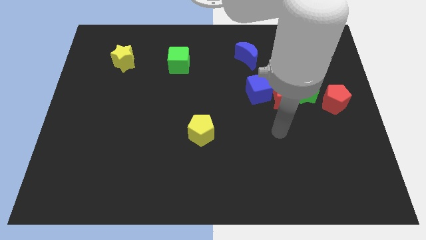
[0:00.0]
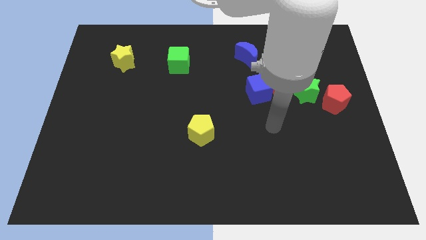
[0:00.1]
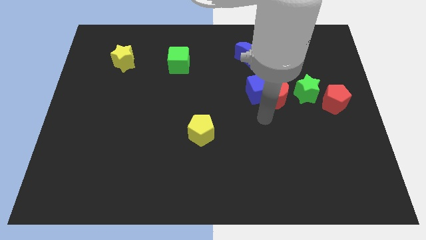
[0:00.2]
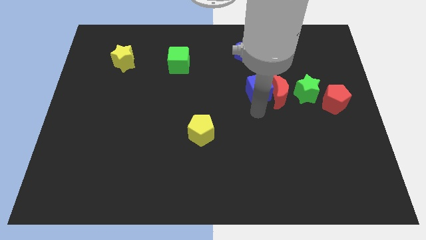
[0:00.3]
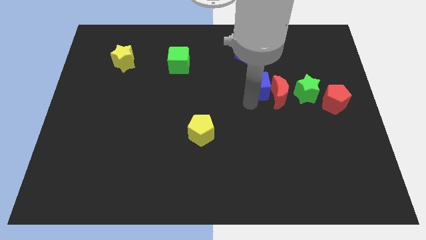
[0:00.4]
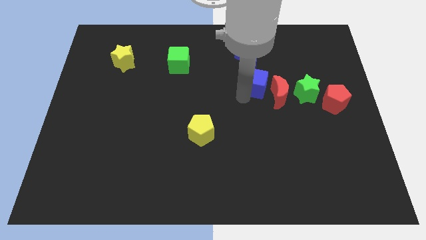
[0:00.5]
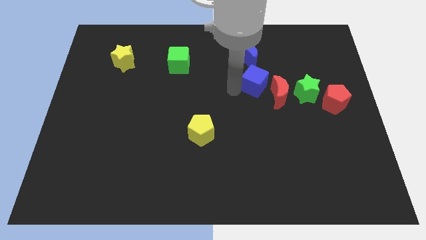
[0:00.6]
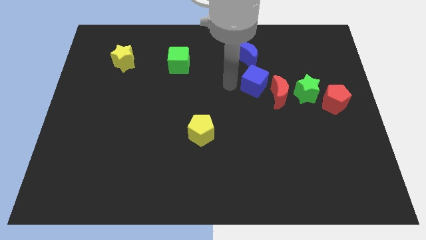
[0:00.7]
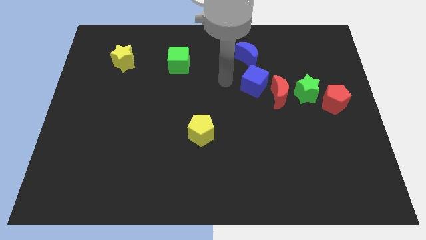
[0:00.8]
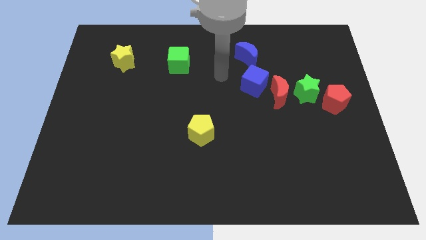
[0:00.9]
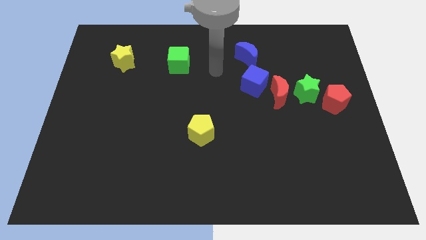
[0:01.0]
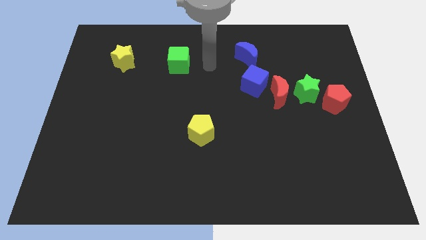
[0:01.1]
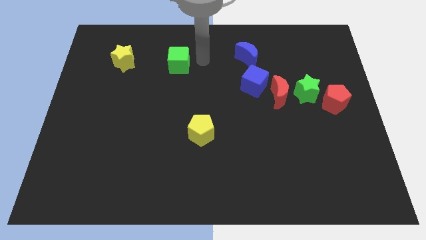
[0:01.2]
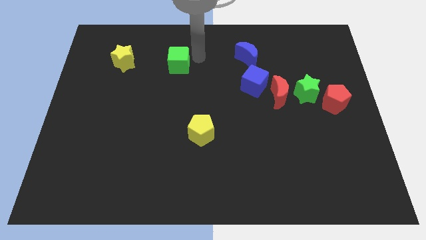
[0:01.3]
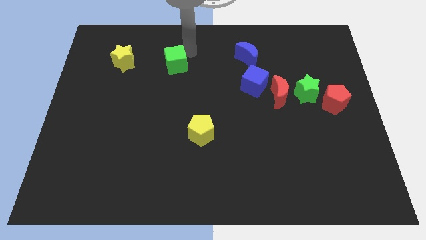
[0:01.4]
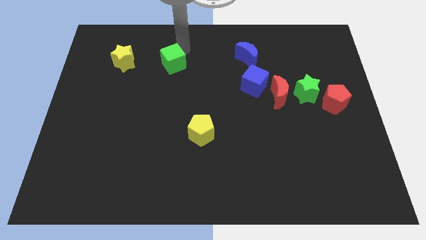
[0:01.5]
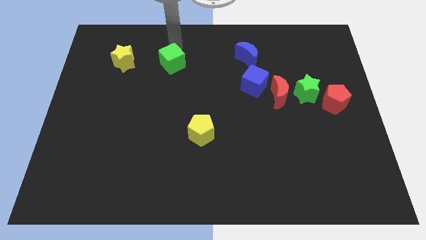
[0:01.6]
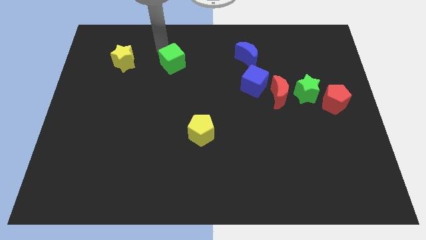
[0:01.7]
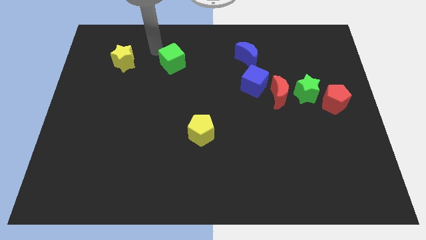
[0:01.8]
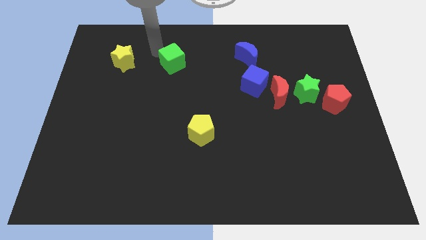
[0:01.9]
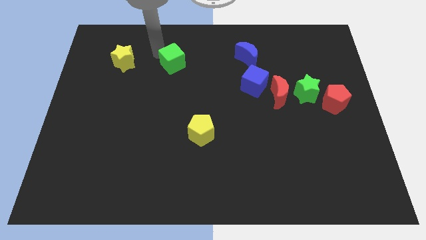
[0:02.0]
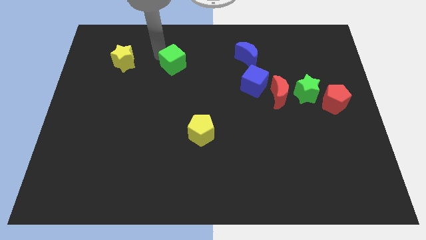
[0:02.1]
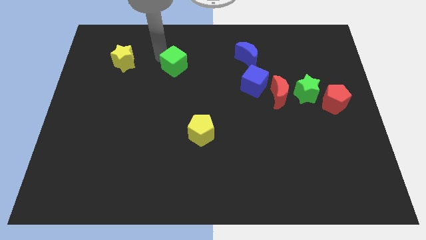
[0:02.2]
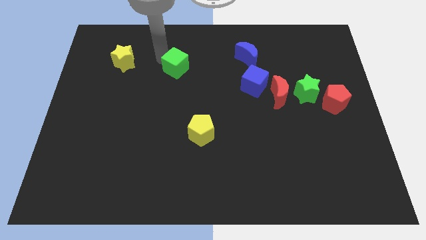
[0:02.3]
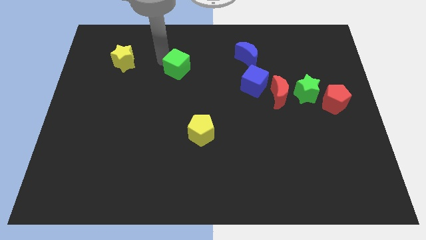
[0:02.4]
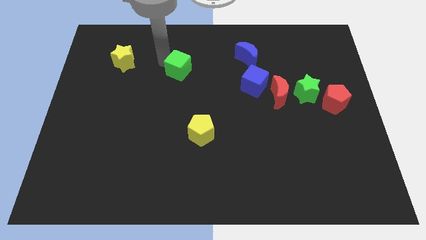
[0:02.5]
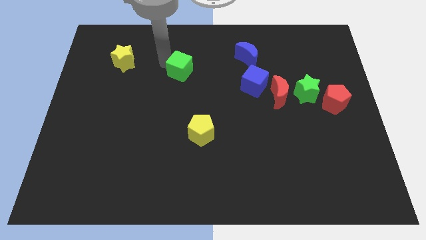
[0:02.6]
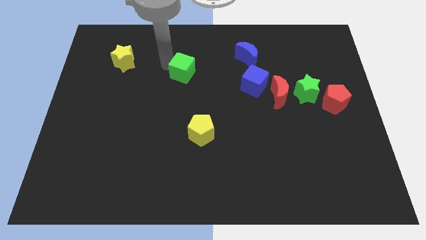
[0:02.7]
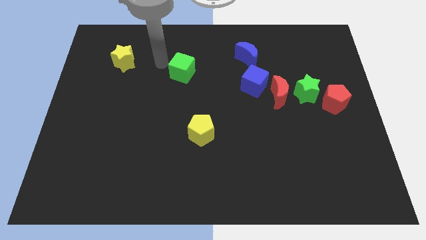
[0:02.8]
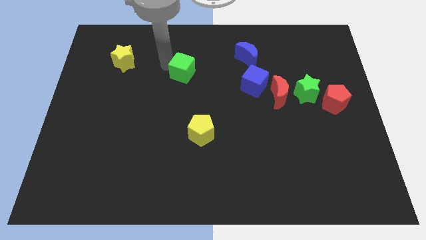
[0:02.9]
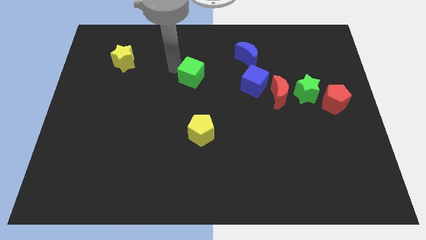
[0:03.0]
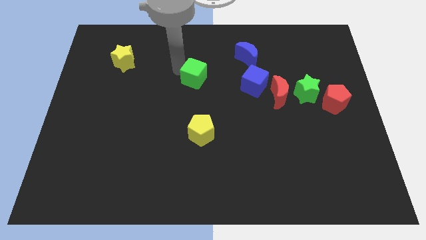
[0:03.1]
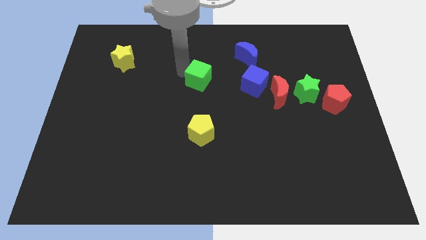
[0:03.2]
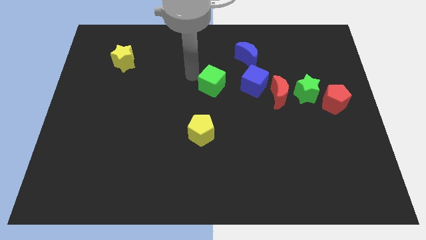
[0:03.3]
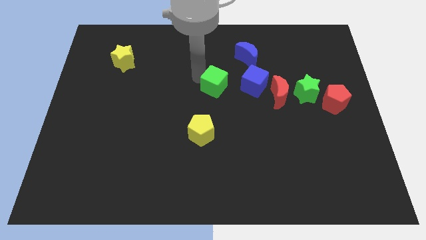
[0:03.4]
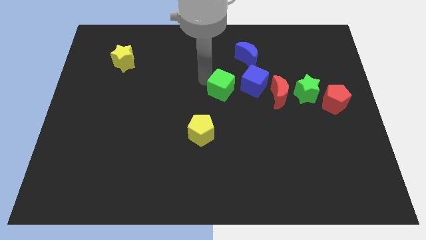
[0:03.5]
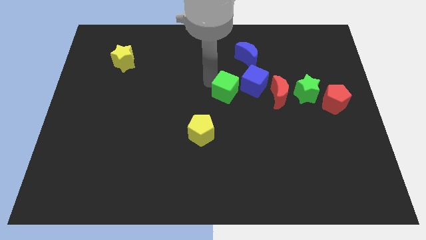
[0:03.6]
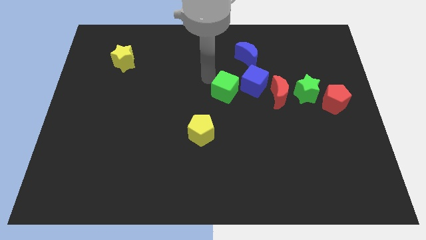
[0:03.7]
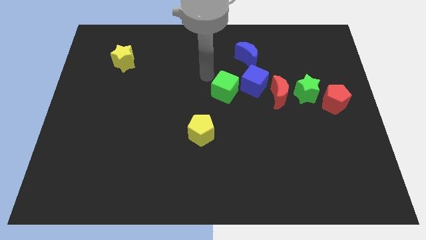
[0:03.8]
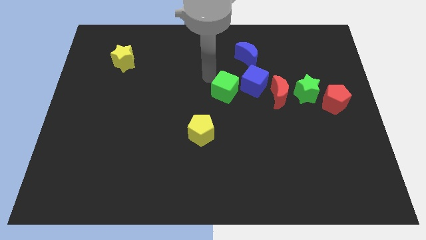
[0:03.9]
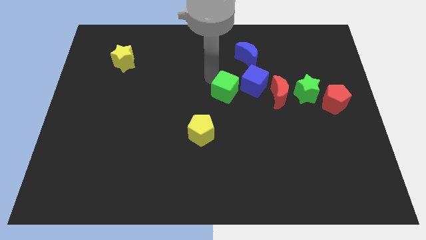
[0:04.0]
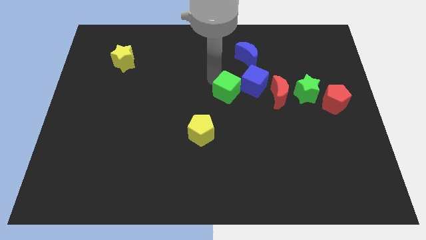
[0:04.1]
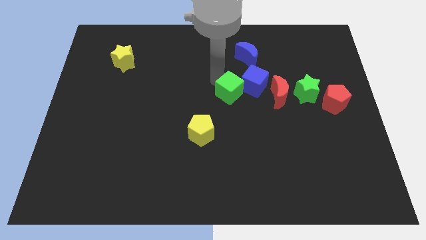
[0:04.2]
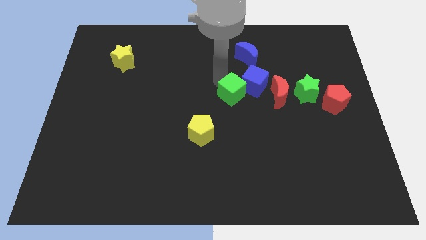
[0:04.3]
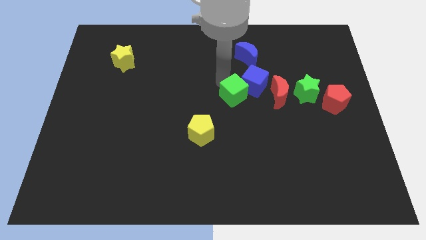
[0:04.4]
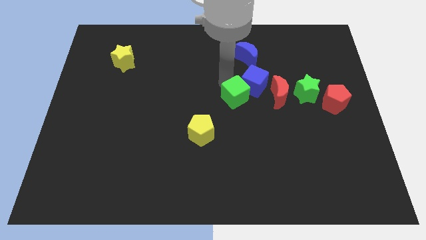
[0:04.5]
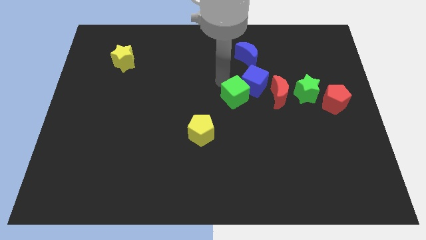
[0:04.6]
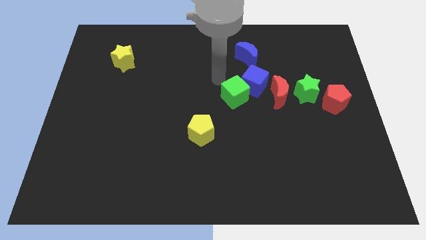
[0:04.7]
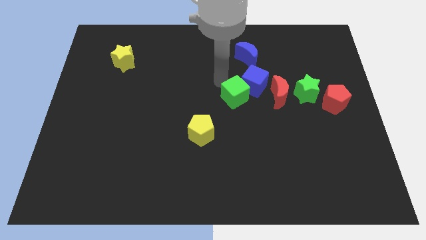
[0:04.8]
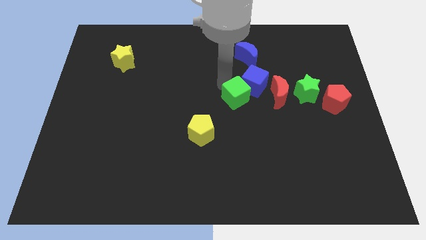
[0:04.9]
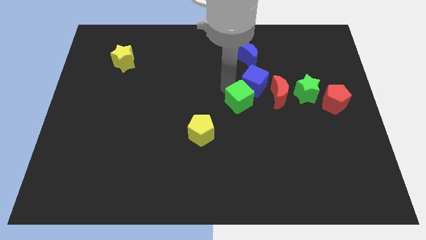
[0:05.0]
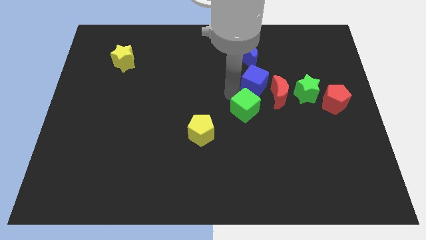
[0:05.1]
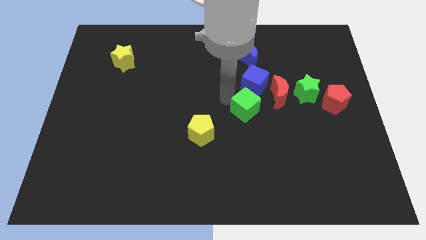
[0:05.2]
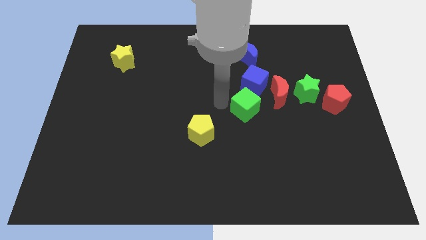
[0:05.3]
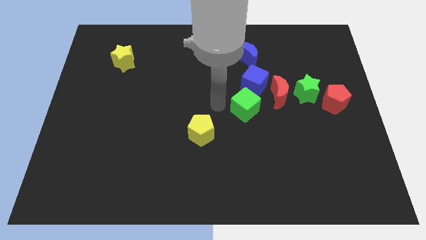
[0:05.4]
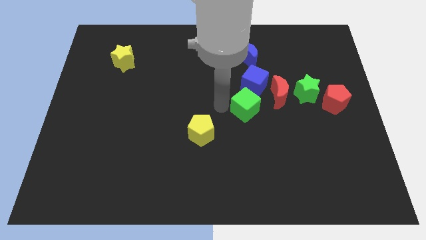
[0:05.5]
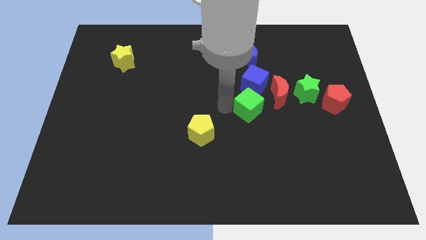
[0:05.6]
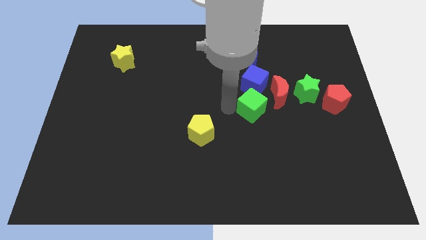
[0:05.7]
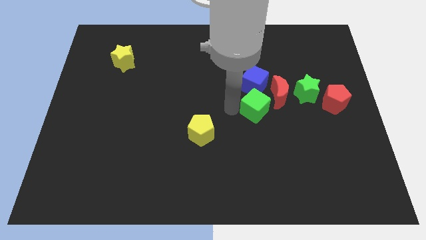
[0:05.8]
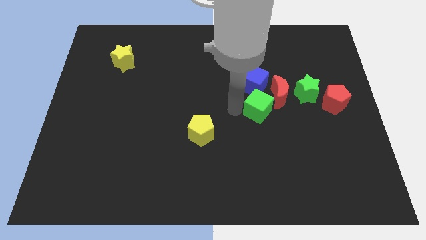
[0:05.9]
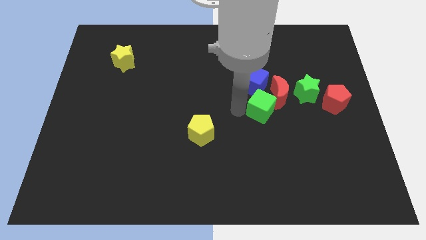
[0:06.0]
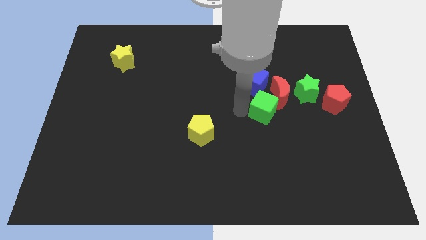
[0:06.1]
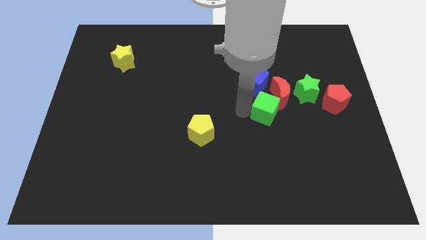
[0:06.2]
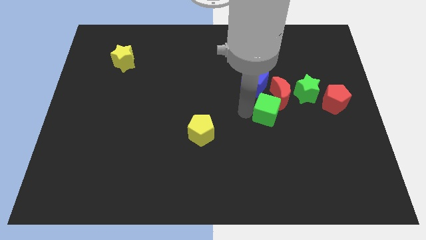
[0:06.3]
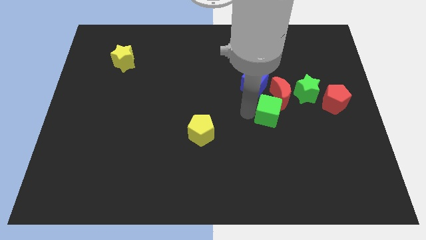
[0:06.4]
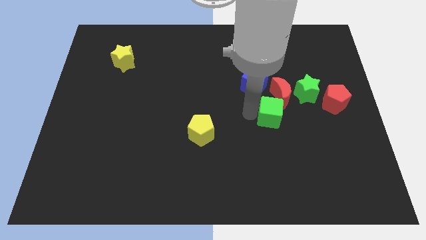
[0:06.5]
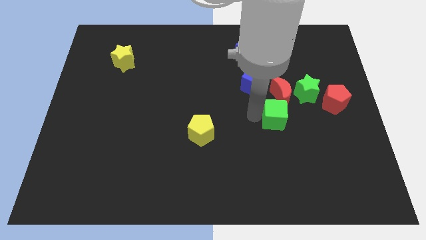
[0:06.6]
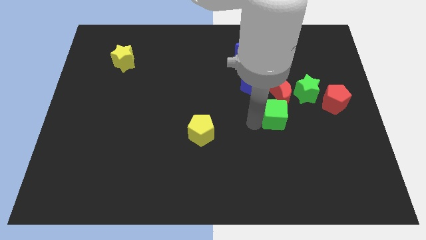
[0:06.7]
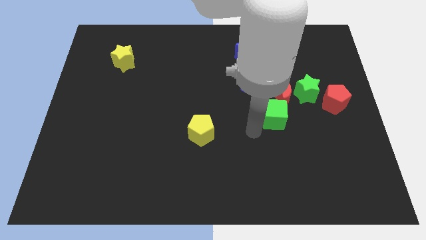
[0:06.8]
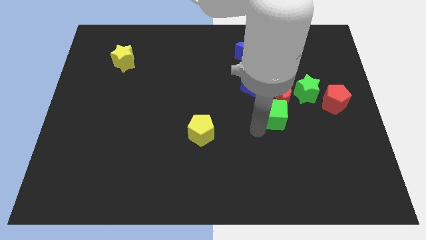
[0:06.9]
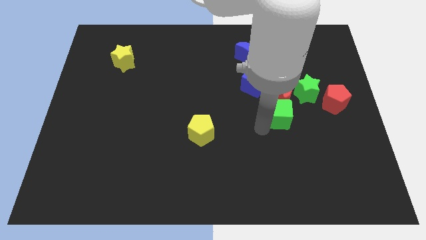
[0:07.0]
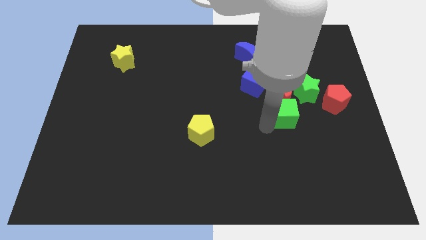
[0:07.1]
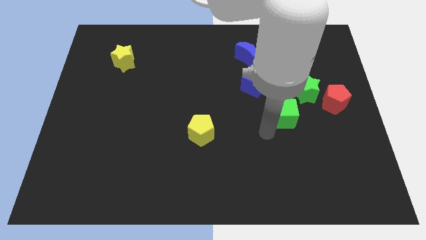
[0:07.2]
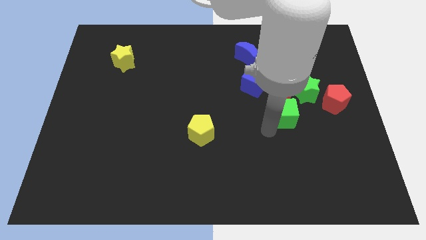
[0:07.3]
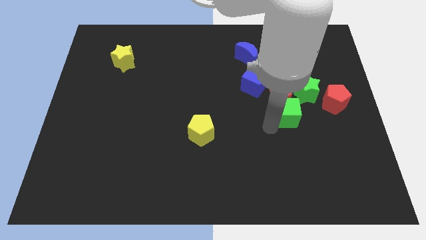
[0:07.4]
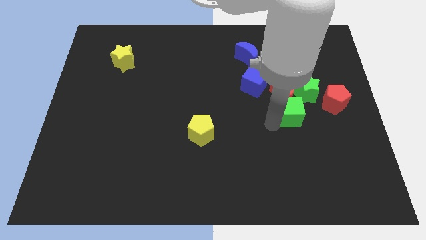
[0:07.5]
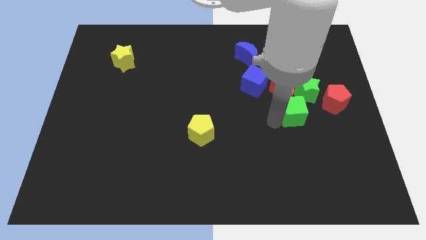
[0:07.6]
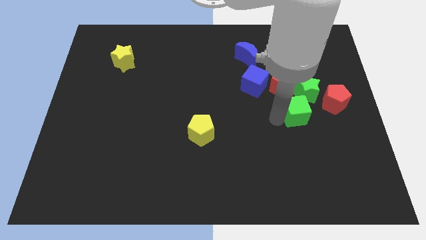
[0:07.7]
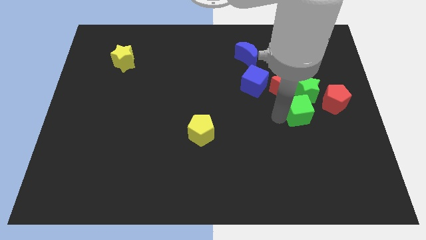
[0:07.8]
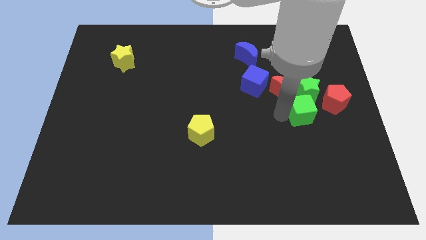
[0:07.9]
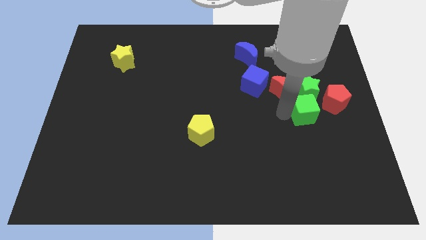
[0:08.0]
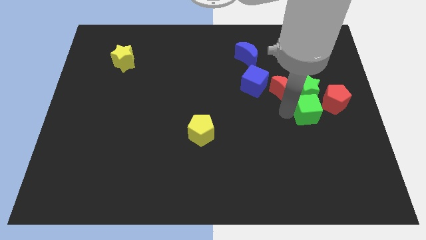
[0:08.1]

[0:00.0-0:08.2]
push the green cube close to the green star
